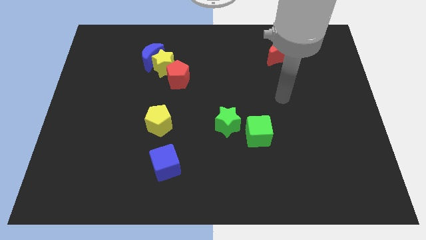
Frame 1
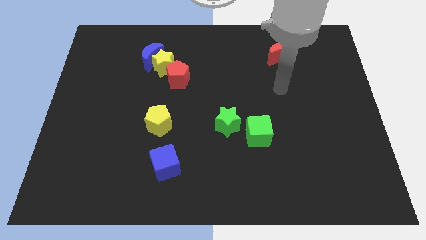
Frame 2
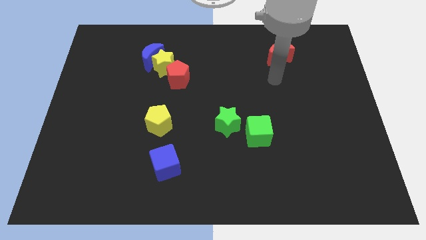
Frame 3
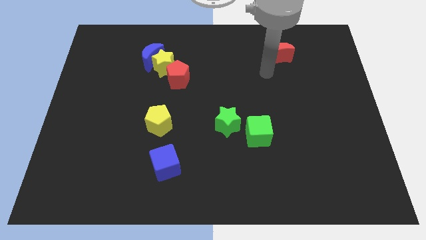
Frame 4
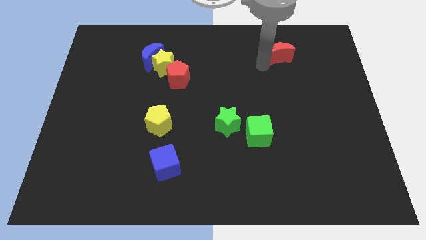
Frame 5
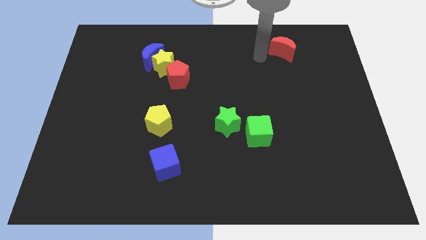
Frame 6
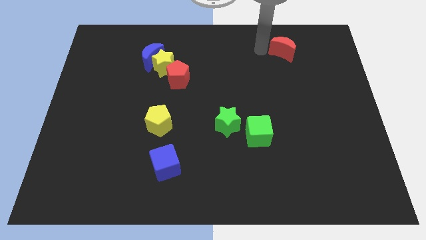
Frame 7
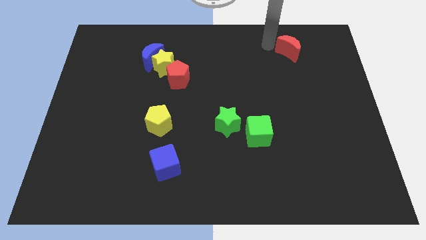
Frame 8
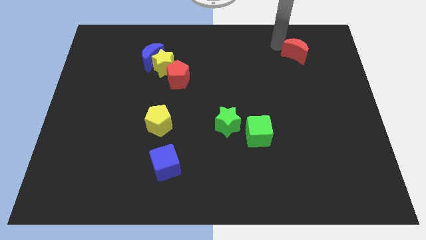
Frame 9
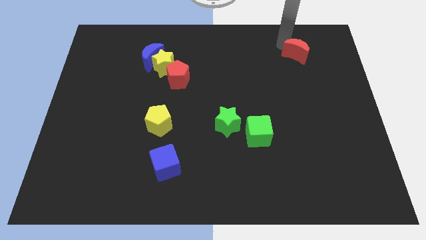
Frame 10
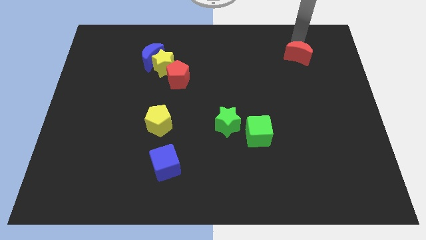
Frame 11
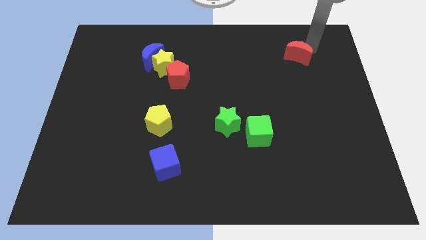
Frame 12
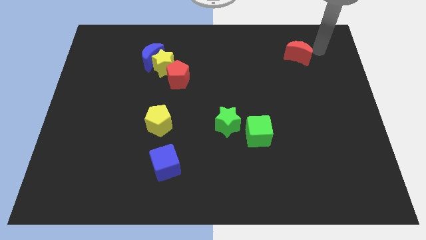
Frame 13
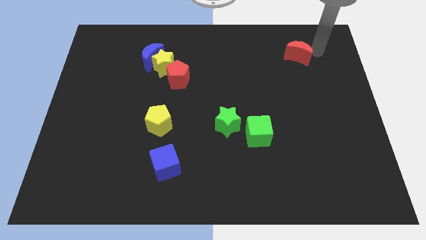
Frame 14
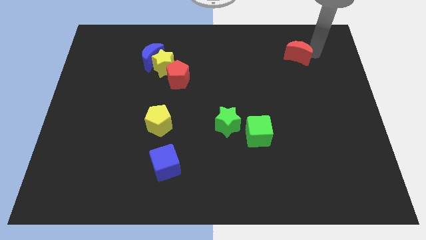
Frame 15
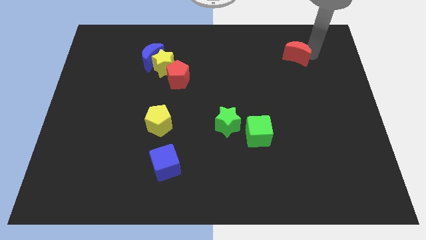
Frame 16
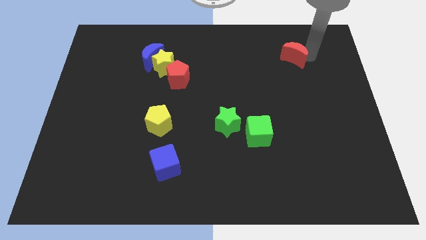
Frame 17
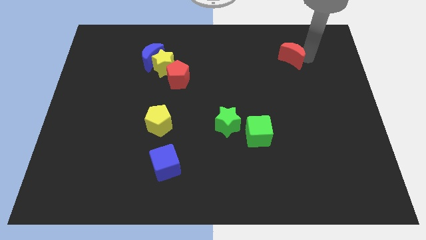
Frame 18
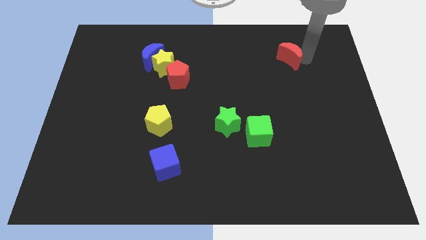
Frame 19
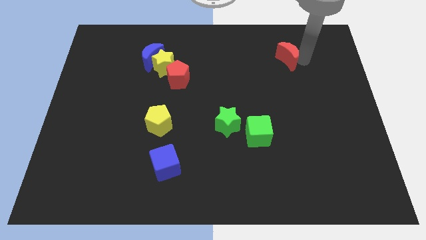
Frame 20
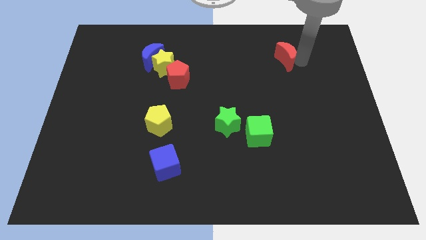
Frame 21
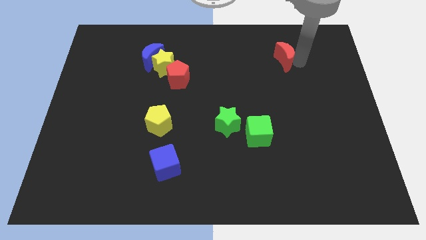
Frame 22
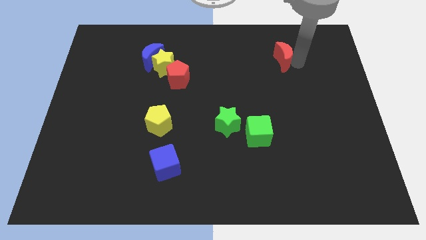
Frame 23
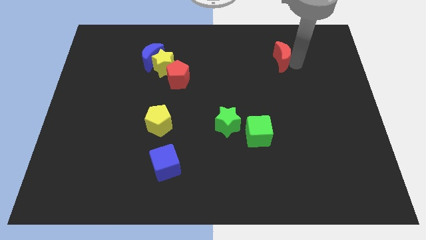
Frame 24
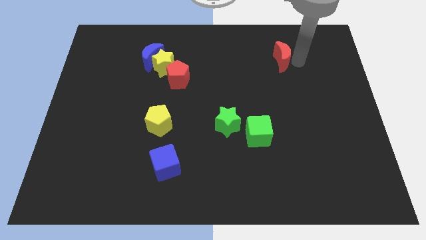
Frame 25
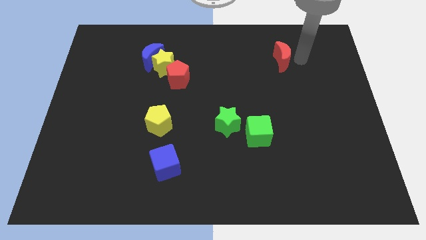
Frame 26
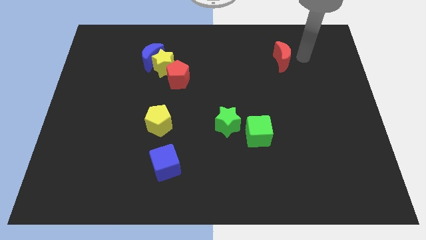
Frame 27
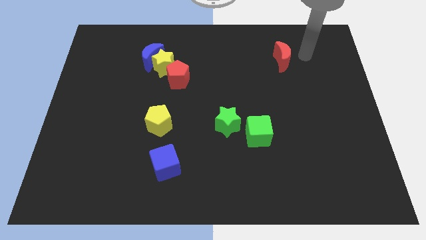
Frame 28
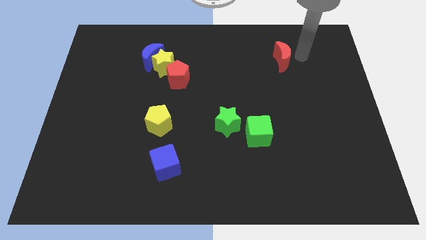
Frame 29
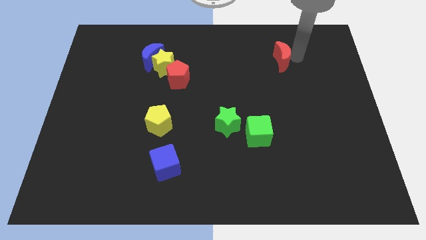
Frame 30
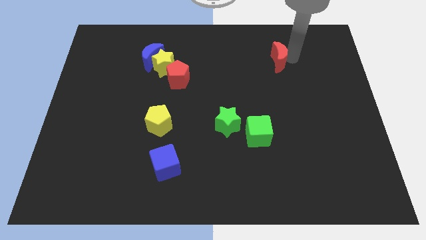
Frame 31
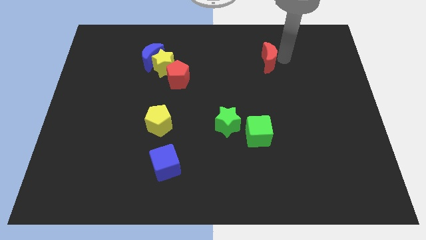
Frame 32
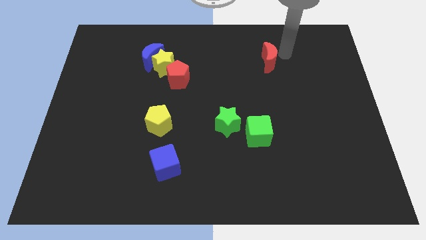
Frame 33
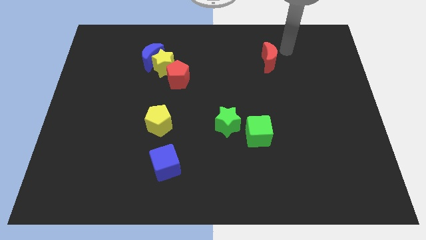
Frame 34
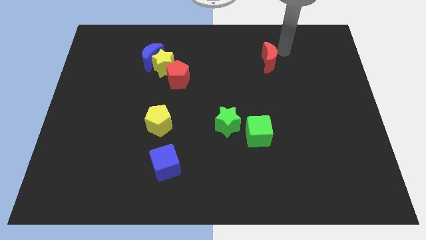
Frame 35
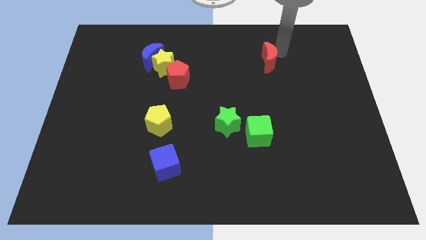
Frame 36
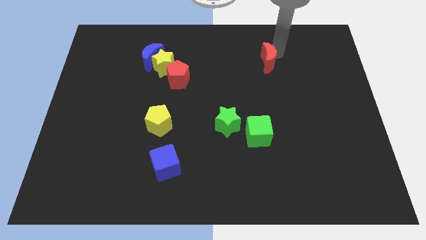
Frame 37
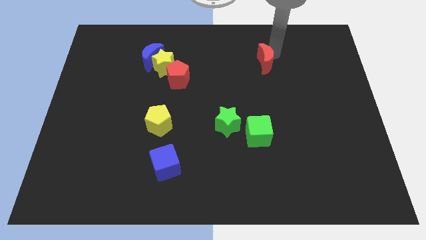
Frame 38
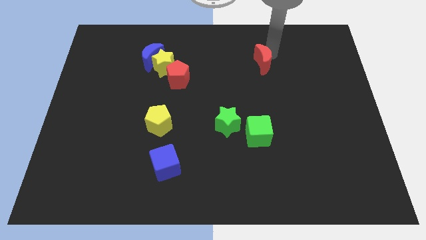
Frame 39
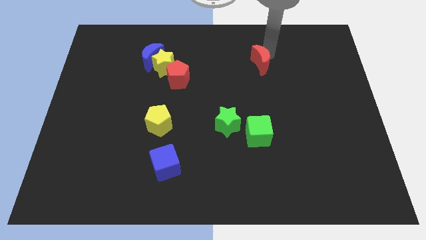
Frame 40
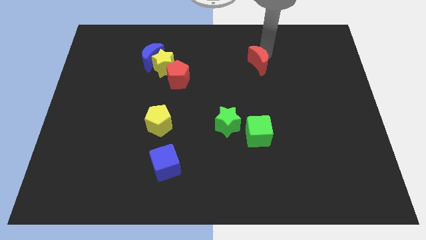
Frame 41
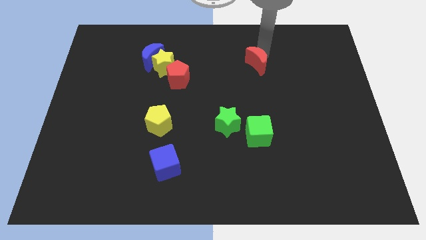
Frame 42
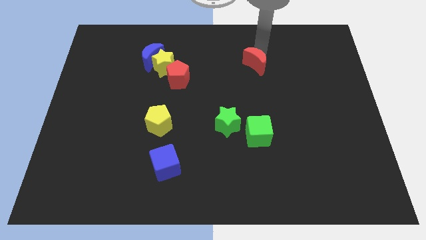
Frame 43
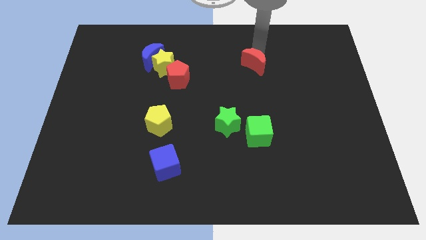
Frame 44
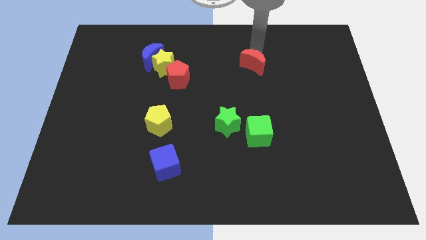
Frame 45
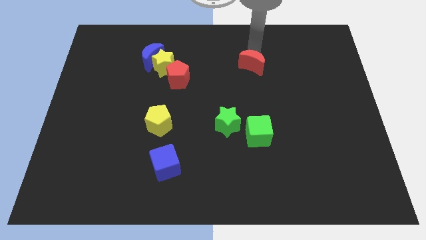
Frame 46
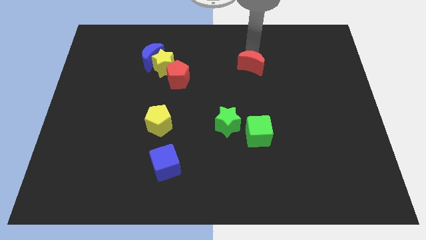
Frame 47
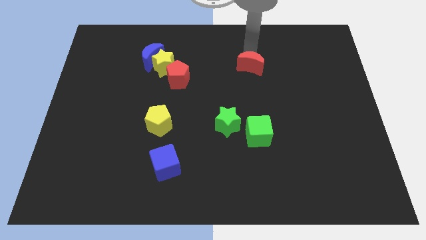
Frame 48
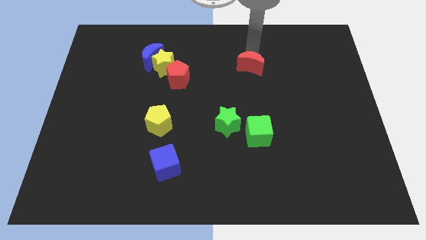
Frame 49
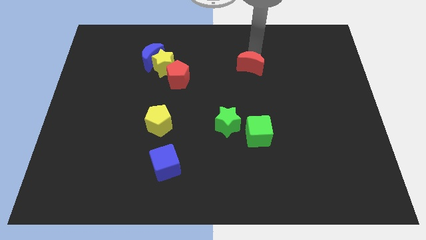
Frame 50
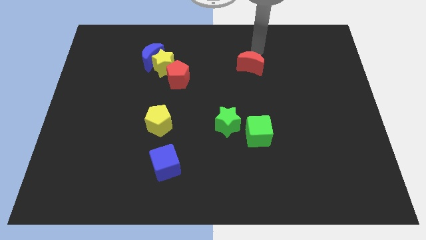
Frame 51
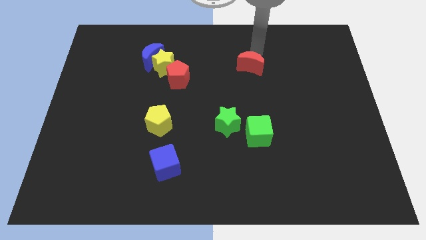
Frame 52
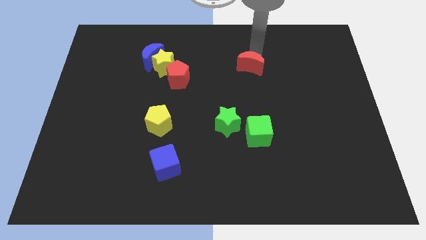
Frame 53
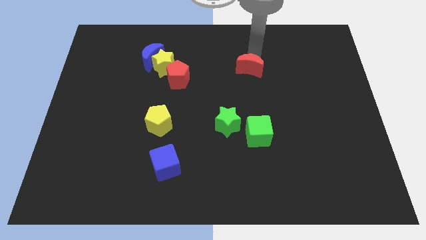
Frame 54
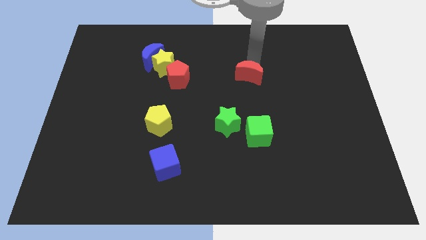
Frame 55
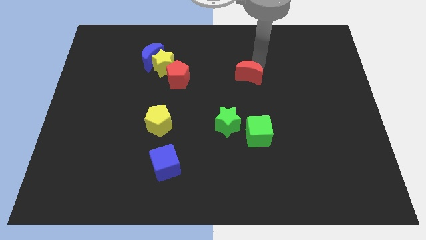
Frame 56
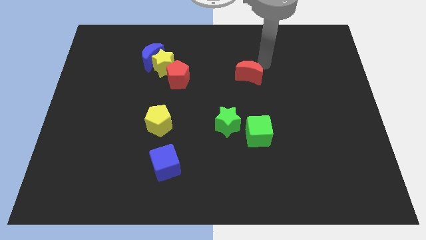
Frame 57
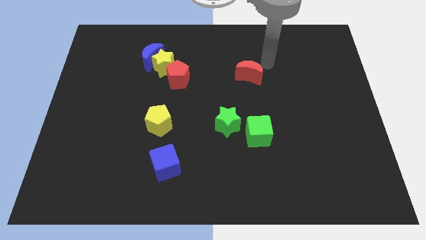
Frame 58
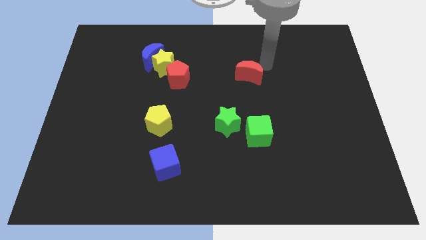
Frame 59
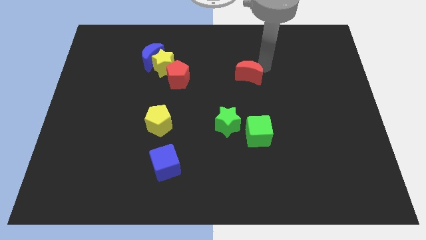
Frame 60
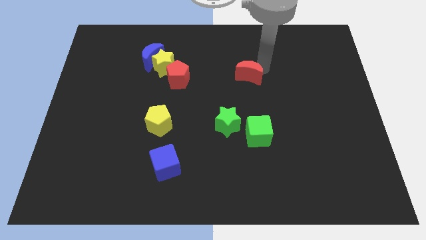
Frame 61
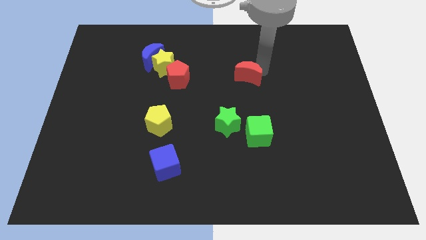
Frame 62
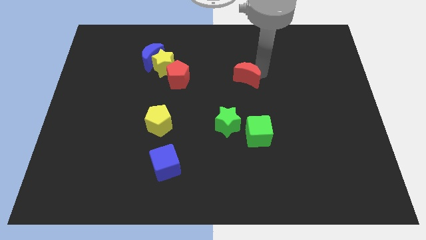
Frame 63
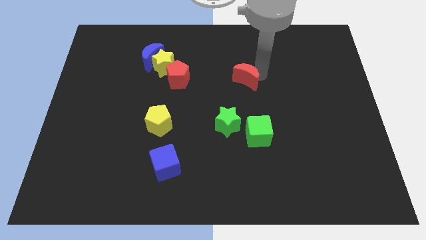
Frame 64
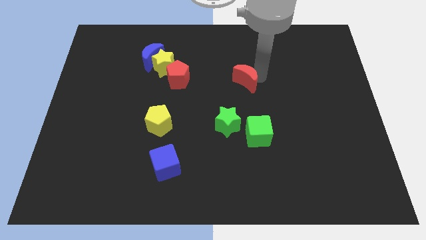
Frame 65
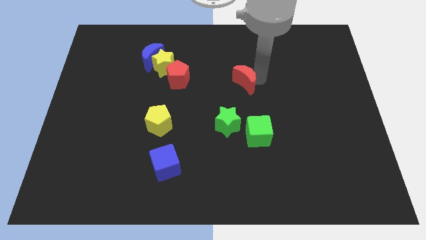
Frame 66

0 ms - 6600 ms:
slide the red moon to the top side of the green star
